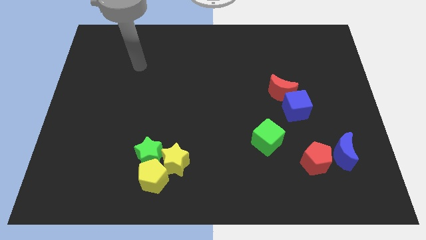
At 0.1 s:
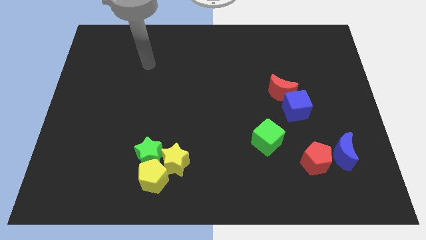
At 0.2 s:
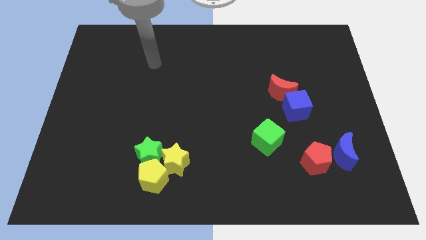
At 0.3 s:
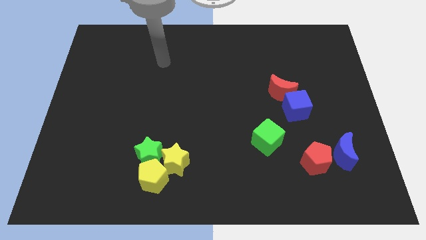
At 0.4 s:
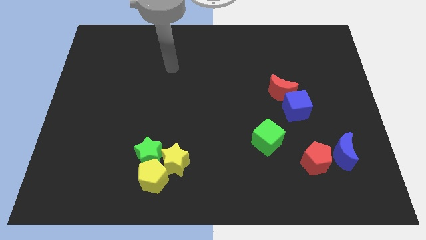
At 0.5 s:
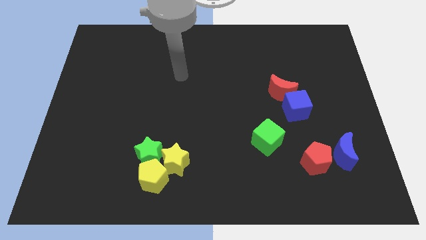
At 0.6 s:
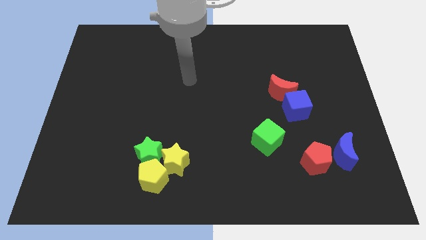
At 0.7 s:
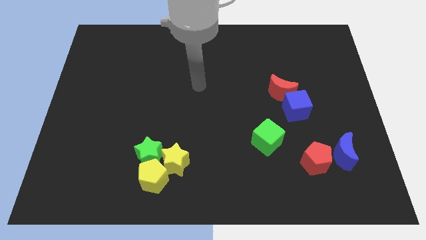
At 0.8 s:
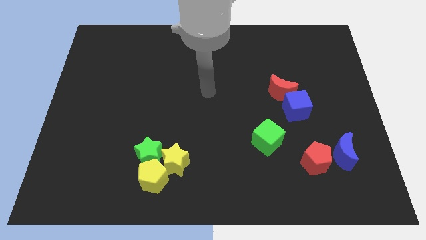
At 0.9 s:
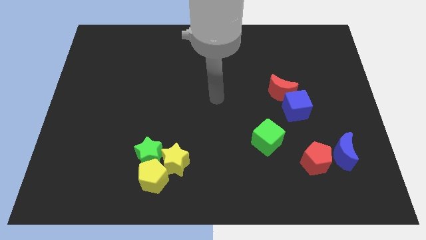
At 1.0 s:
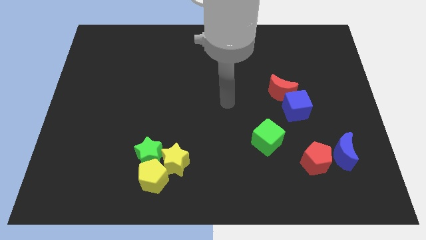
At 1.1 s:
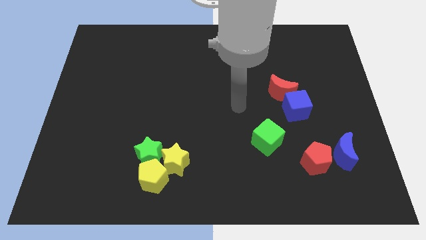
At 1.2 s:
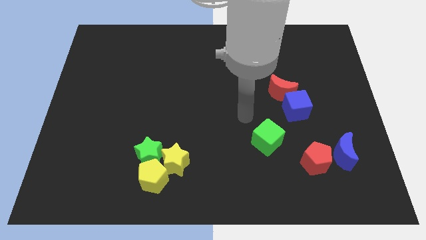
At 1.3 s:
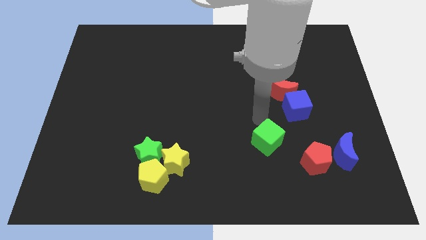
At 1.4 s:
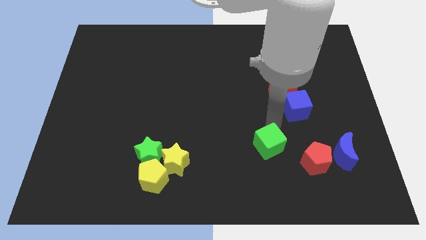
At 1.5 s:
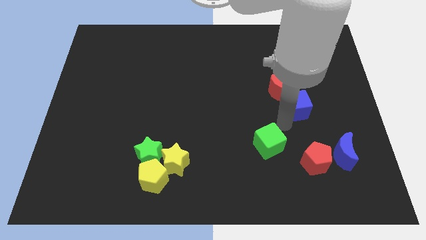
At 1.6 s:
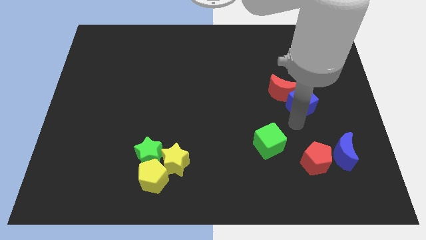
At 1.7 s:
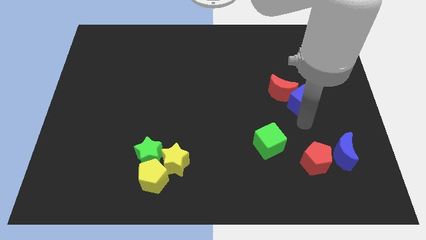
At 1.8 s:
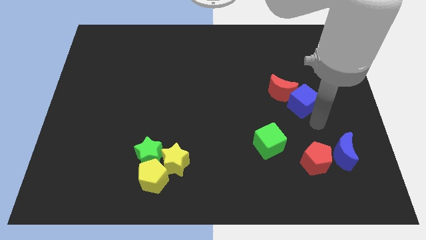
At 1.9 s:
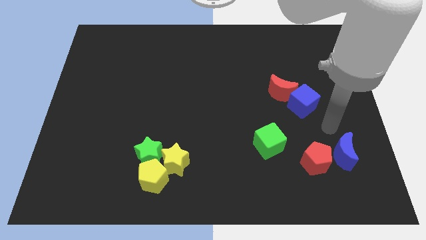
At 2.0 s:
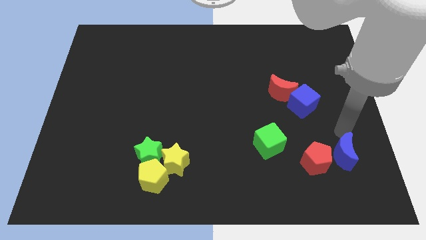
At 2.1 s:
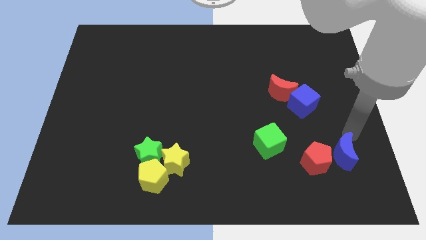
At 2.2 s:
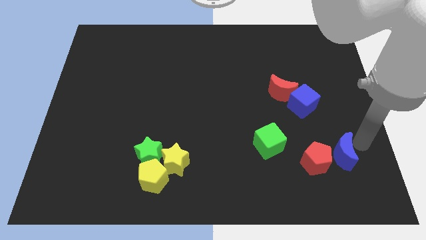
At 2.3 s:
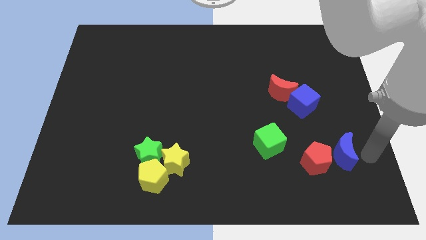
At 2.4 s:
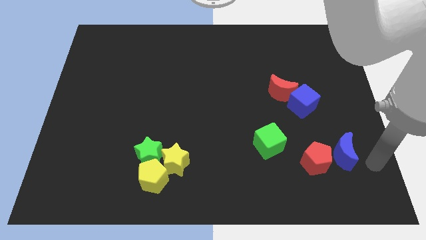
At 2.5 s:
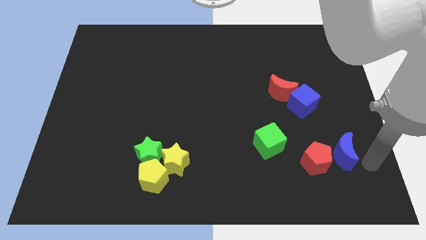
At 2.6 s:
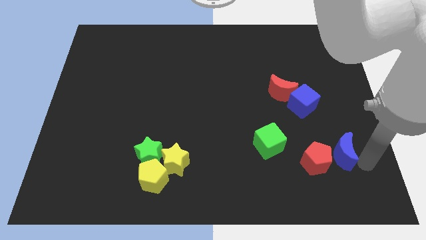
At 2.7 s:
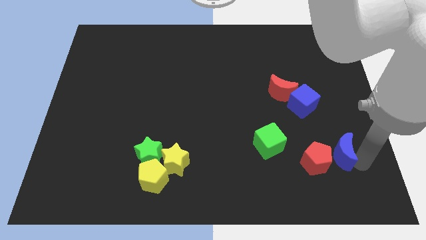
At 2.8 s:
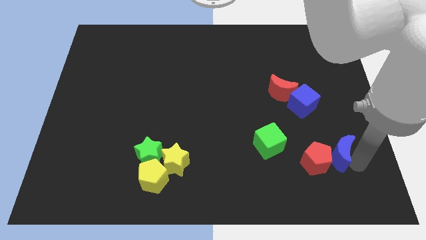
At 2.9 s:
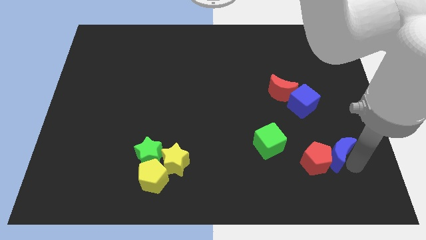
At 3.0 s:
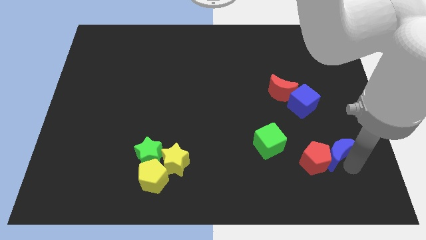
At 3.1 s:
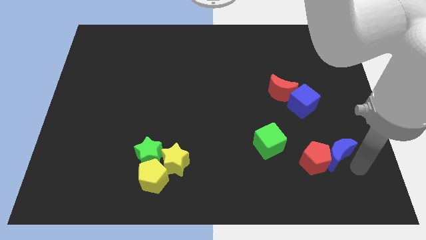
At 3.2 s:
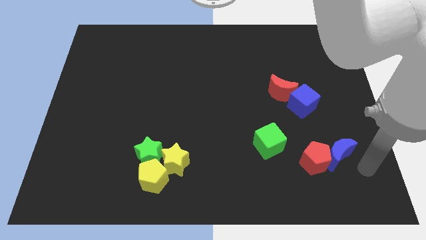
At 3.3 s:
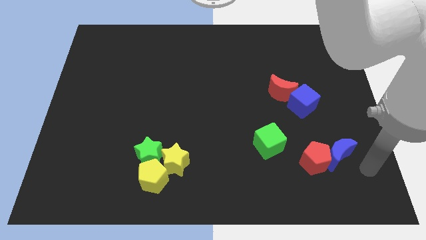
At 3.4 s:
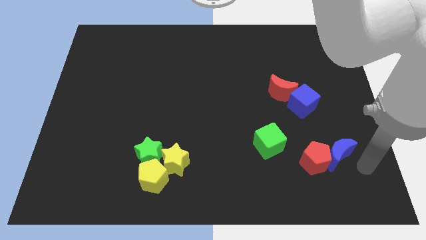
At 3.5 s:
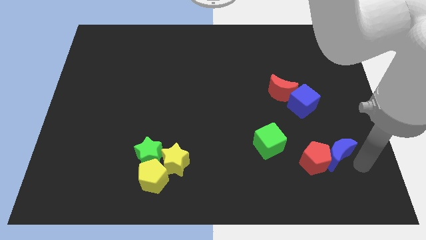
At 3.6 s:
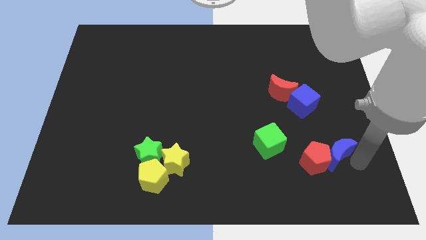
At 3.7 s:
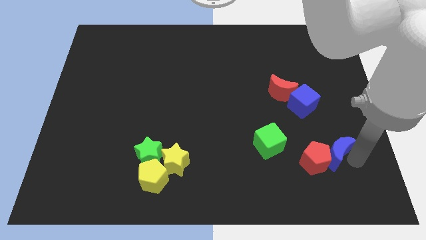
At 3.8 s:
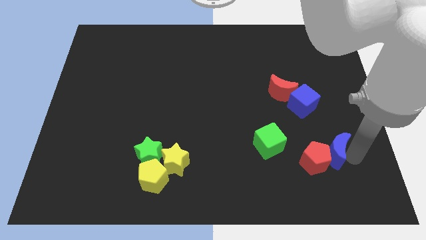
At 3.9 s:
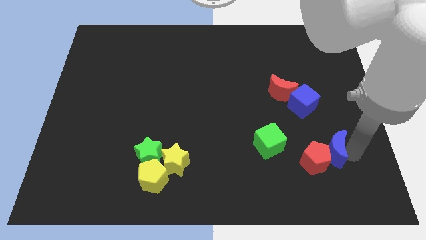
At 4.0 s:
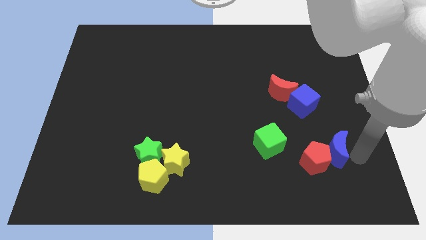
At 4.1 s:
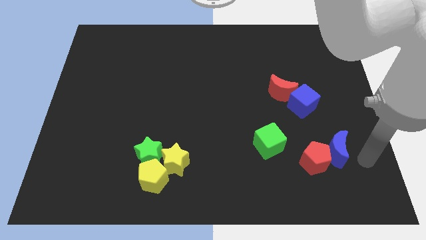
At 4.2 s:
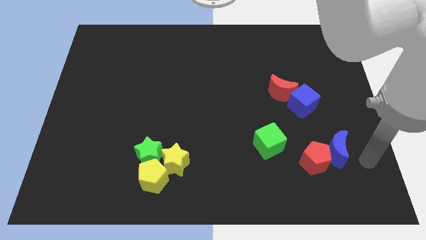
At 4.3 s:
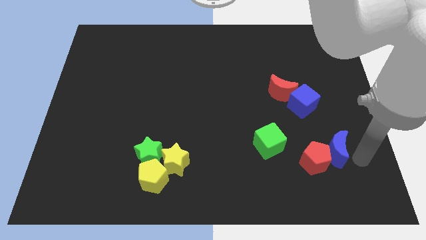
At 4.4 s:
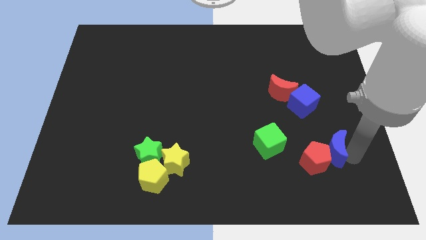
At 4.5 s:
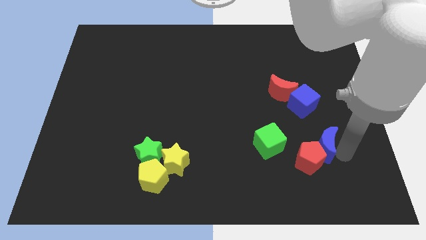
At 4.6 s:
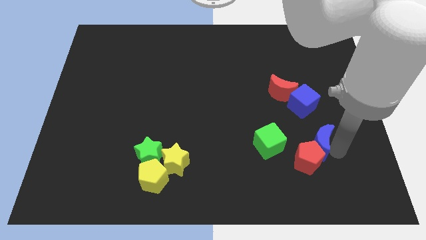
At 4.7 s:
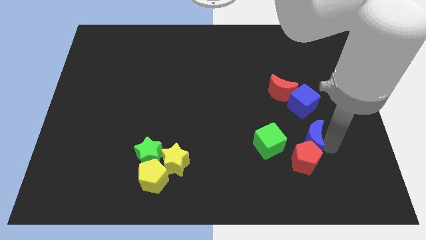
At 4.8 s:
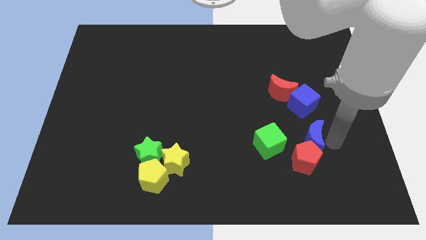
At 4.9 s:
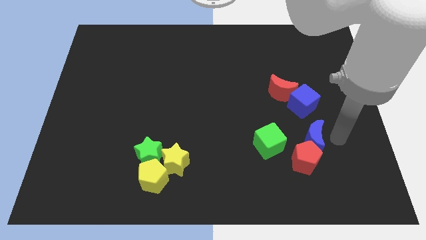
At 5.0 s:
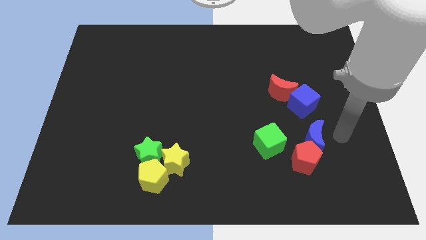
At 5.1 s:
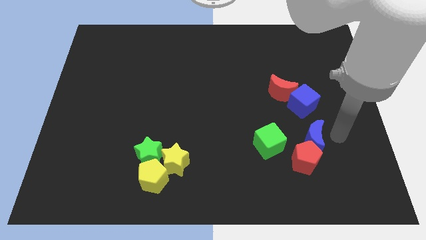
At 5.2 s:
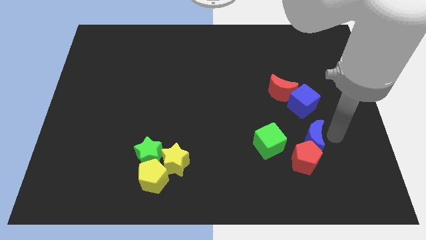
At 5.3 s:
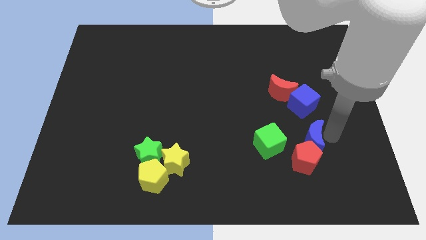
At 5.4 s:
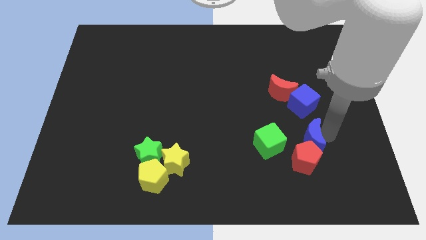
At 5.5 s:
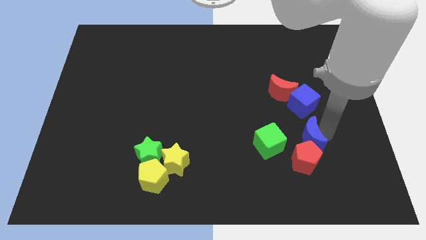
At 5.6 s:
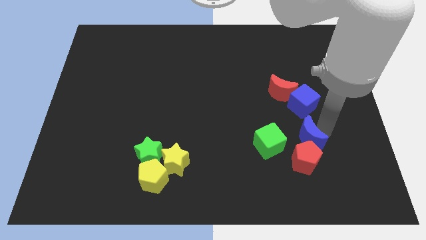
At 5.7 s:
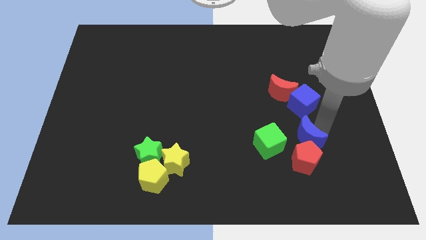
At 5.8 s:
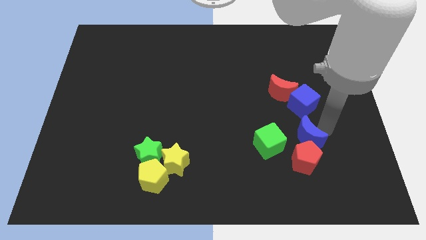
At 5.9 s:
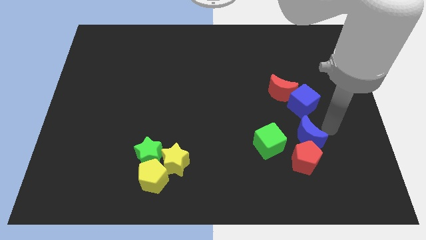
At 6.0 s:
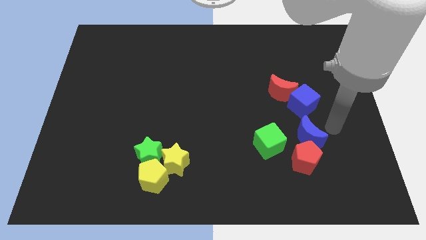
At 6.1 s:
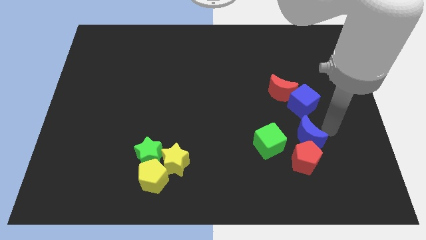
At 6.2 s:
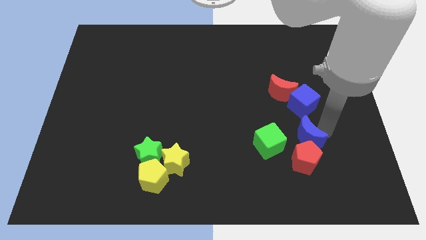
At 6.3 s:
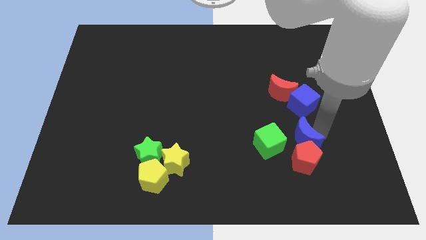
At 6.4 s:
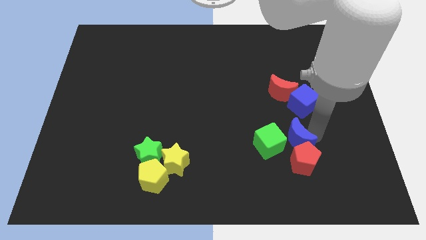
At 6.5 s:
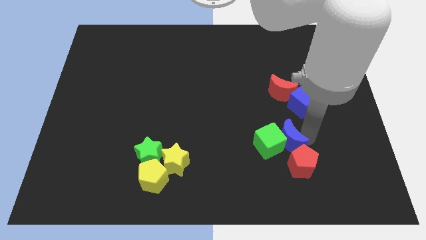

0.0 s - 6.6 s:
put the blue moon towards the green cube

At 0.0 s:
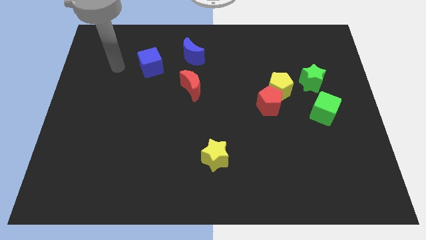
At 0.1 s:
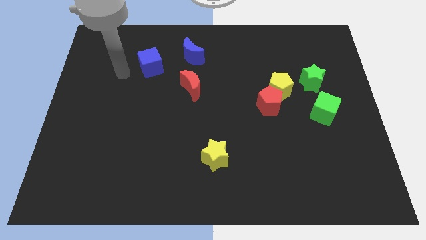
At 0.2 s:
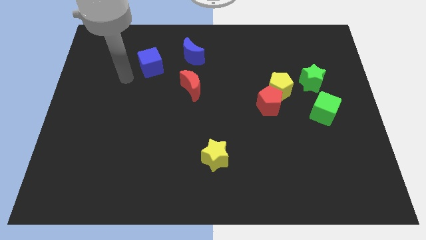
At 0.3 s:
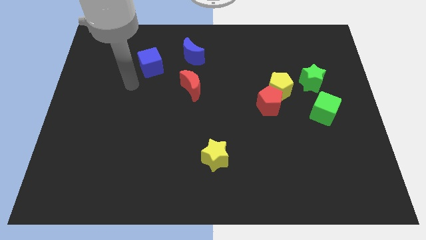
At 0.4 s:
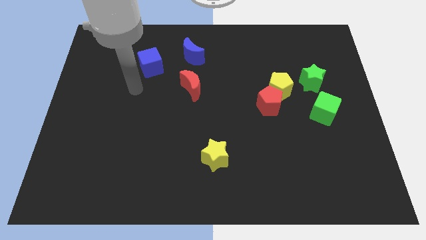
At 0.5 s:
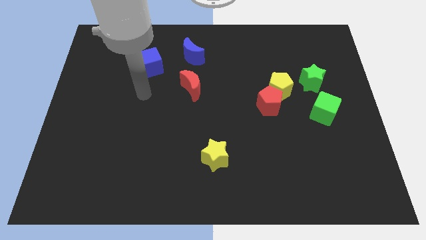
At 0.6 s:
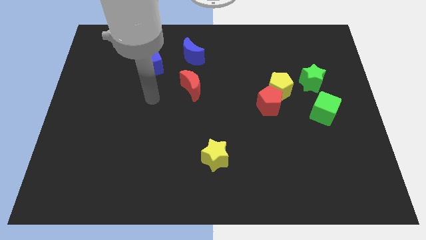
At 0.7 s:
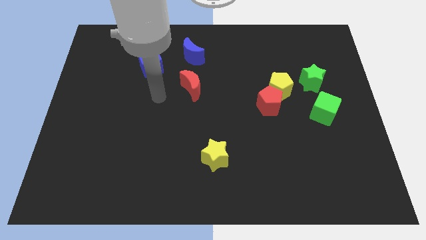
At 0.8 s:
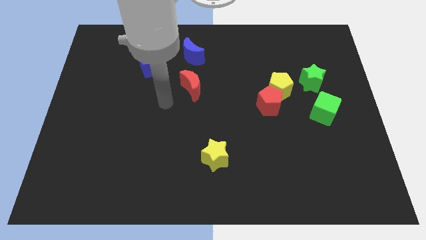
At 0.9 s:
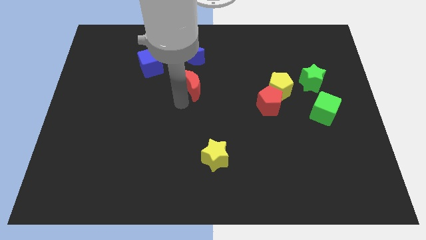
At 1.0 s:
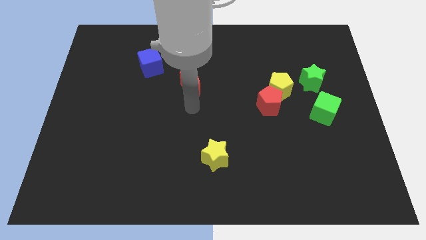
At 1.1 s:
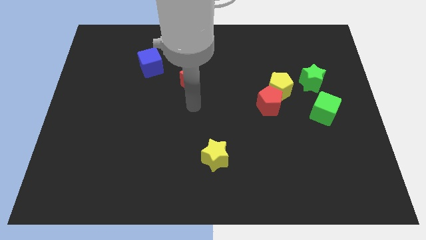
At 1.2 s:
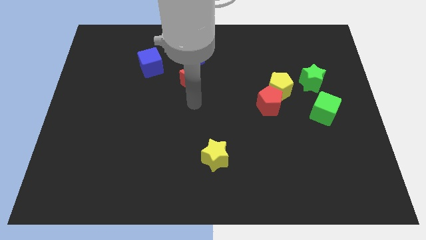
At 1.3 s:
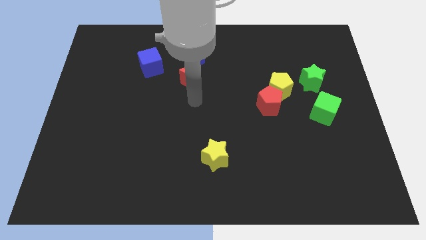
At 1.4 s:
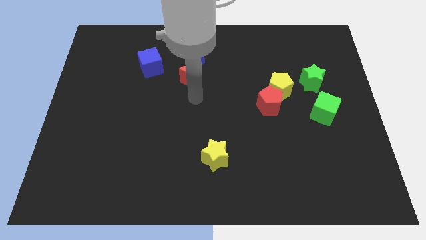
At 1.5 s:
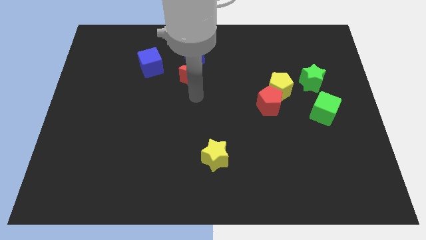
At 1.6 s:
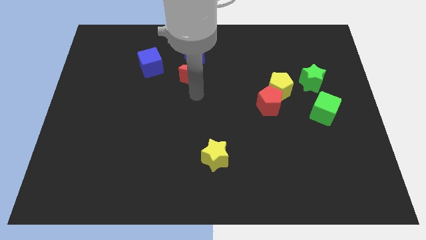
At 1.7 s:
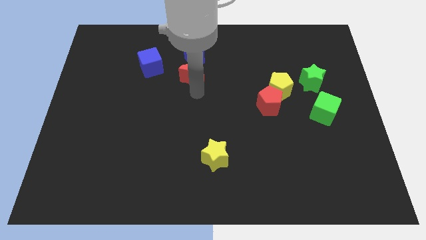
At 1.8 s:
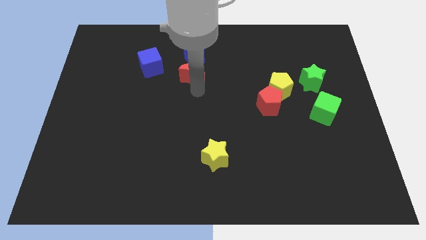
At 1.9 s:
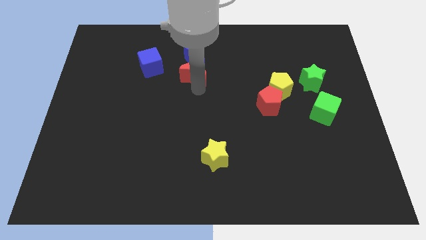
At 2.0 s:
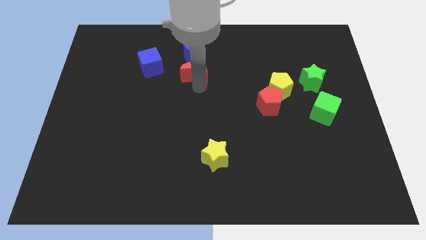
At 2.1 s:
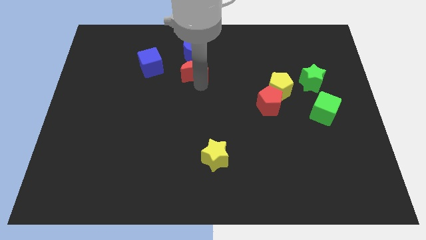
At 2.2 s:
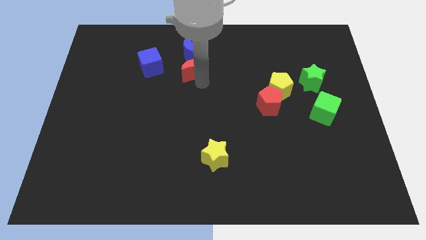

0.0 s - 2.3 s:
put the red moon next to the blue moon
